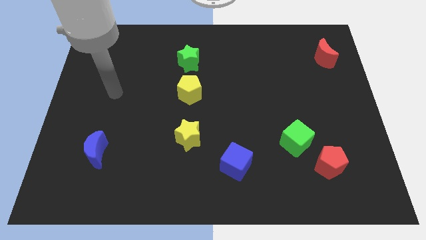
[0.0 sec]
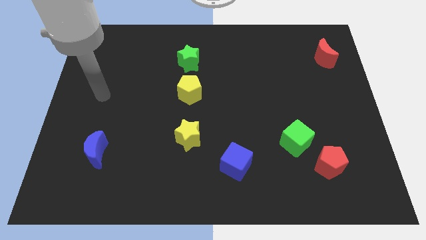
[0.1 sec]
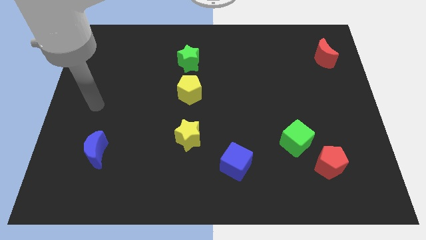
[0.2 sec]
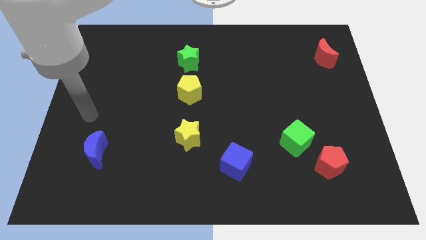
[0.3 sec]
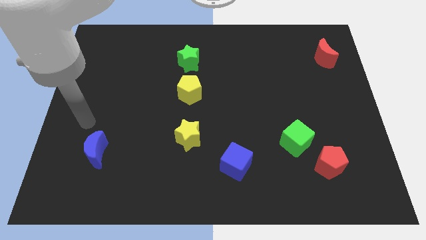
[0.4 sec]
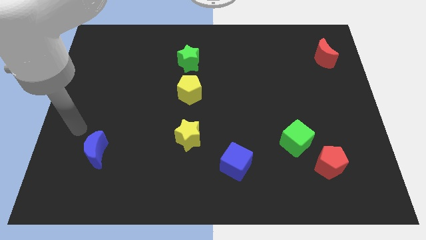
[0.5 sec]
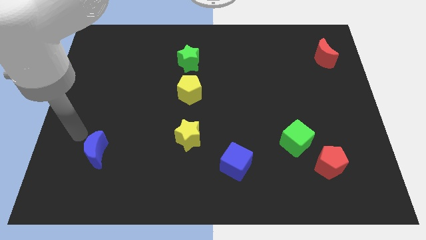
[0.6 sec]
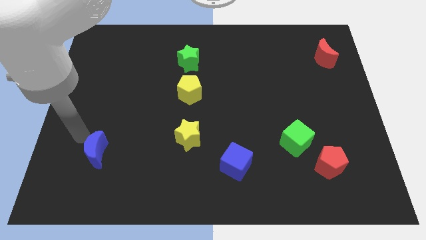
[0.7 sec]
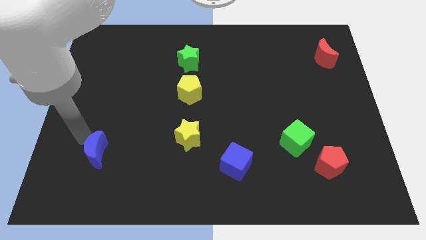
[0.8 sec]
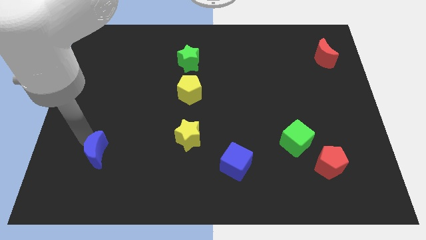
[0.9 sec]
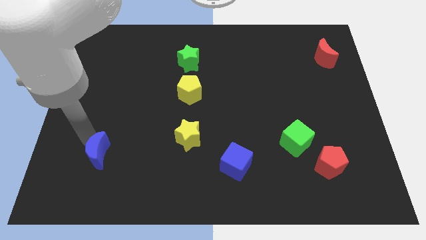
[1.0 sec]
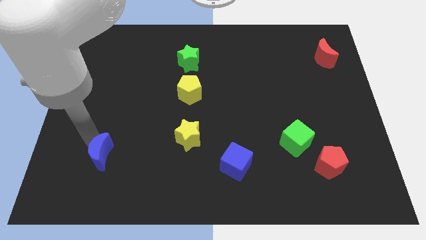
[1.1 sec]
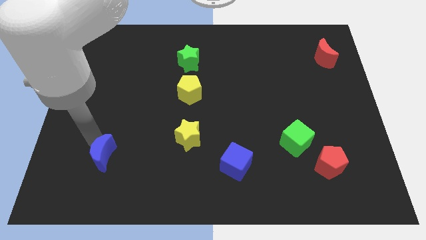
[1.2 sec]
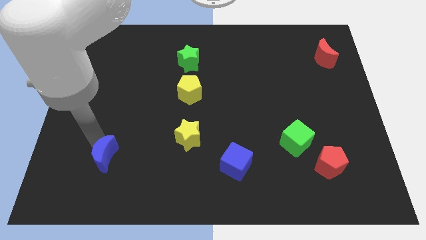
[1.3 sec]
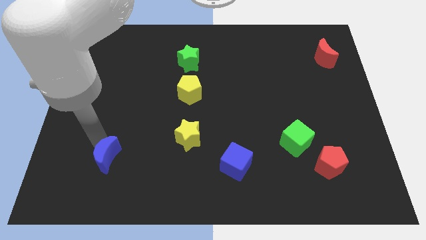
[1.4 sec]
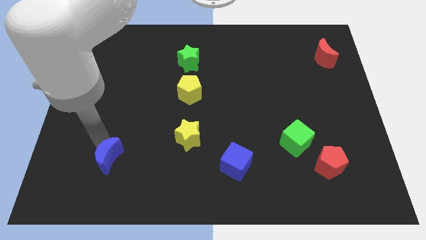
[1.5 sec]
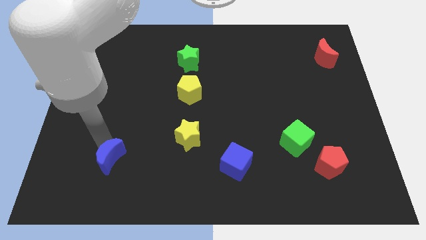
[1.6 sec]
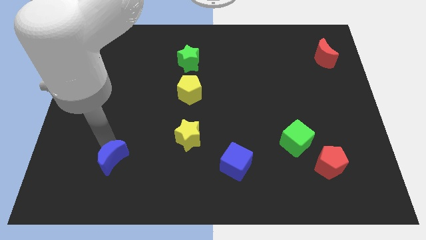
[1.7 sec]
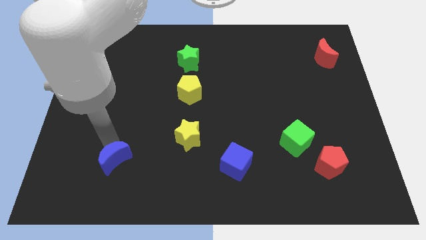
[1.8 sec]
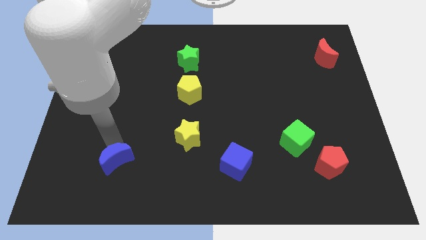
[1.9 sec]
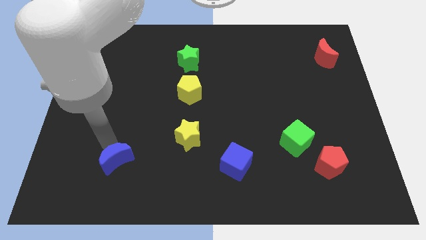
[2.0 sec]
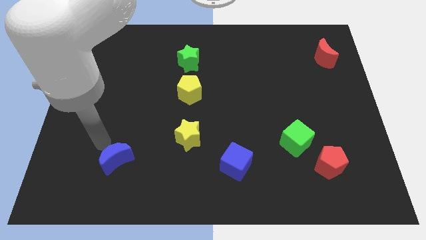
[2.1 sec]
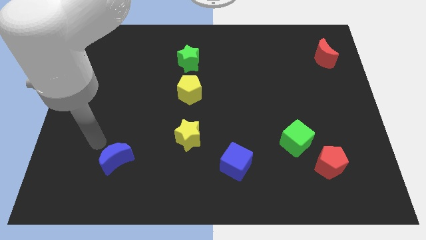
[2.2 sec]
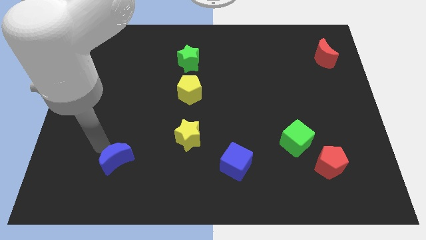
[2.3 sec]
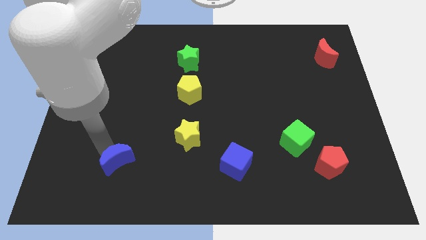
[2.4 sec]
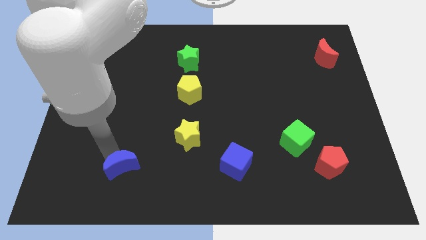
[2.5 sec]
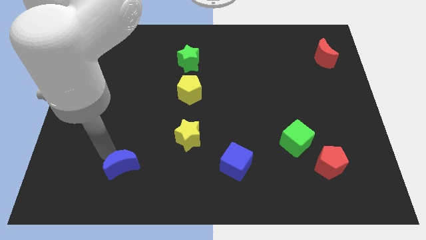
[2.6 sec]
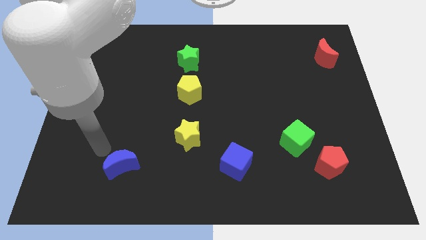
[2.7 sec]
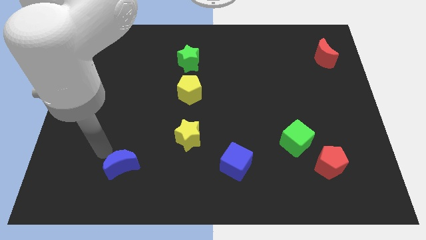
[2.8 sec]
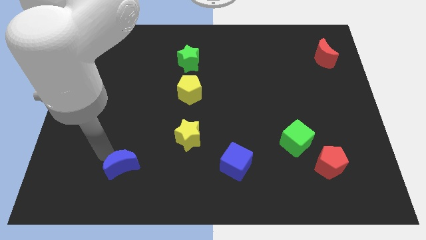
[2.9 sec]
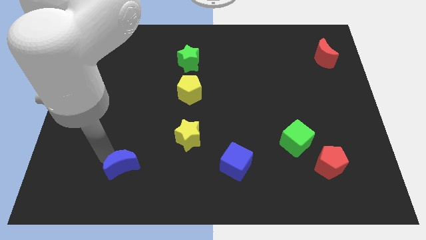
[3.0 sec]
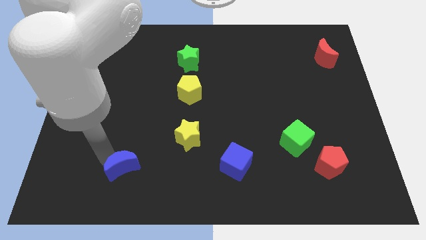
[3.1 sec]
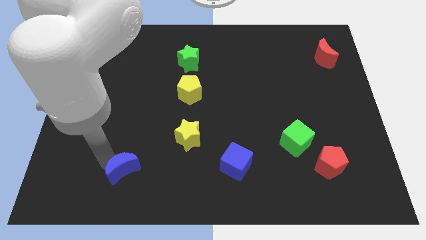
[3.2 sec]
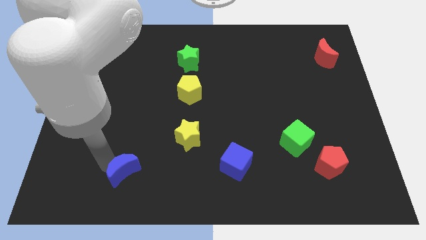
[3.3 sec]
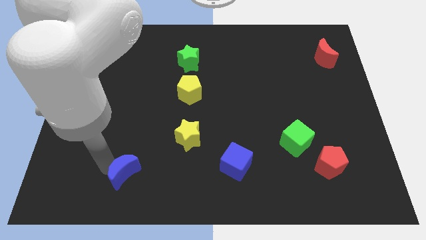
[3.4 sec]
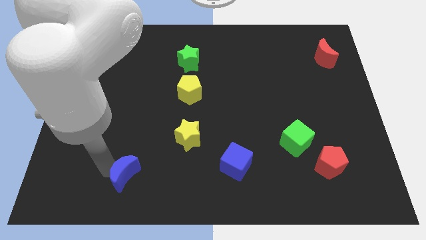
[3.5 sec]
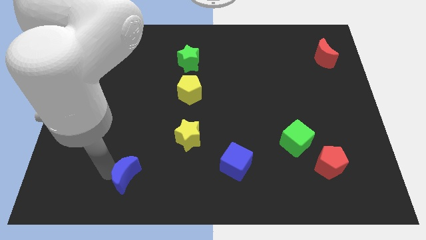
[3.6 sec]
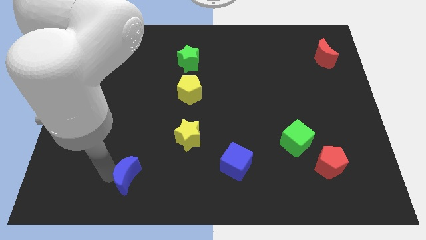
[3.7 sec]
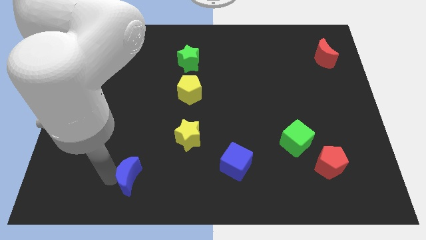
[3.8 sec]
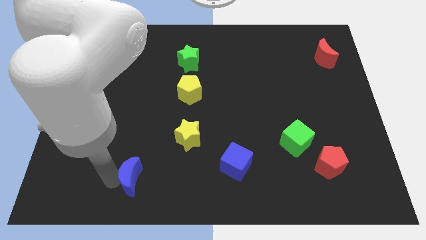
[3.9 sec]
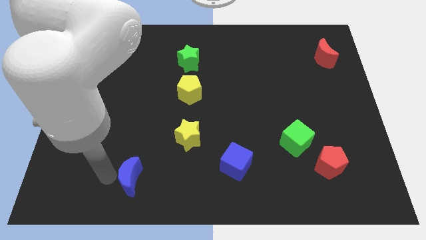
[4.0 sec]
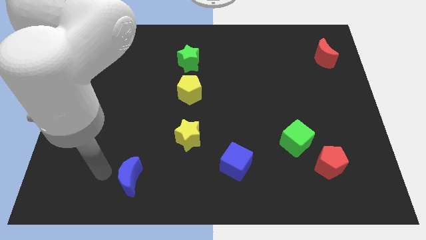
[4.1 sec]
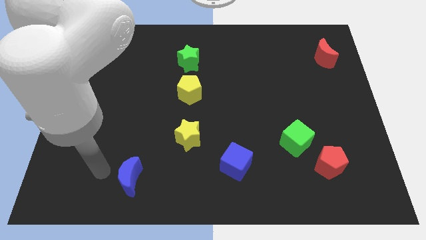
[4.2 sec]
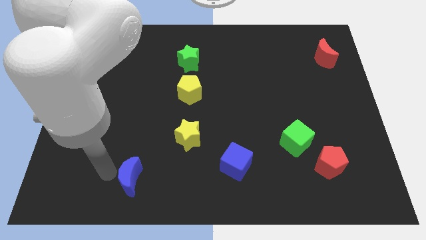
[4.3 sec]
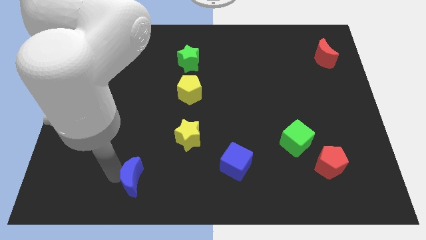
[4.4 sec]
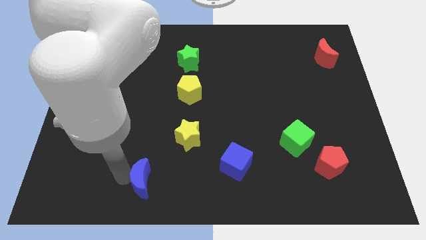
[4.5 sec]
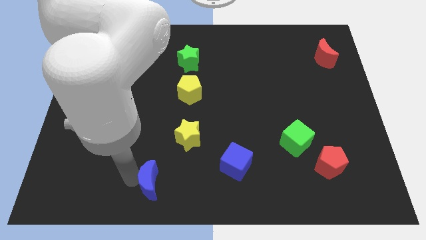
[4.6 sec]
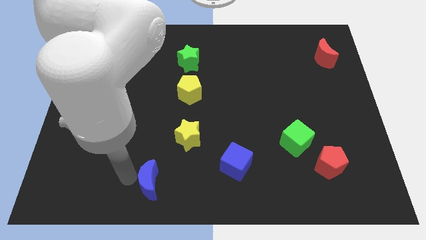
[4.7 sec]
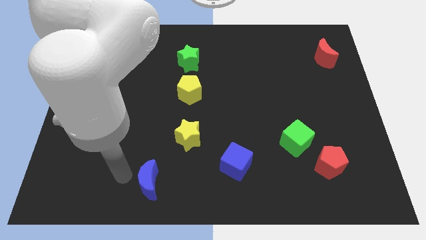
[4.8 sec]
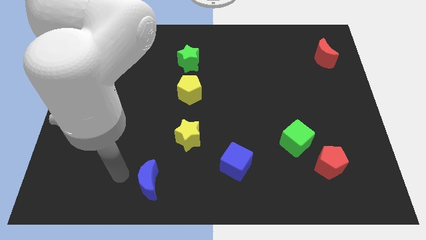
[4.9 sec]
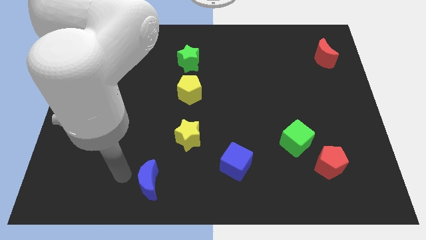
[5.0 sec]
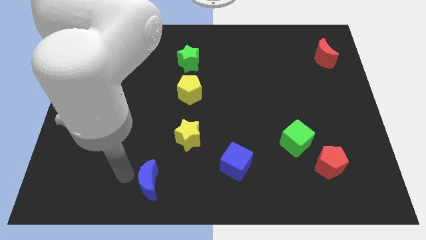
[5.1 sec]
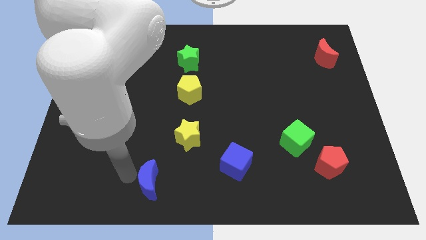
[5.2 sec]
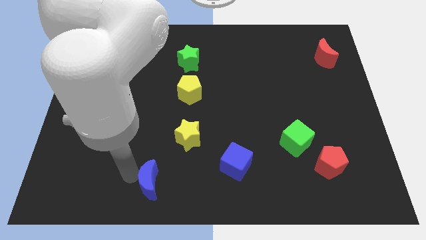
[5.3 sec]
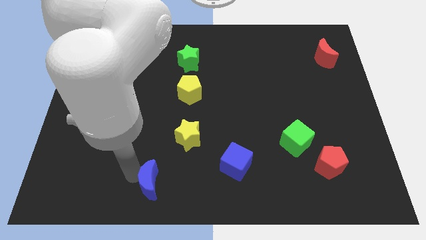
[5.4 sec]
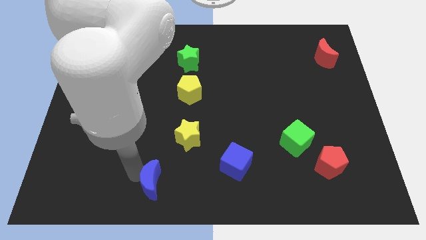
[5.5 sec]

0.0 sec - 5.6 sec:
push the blue moon to the bottom side

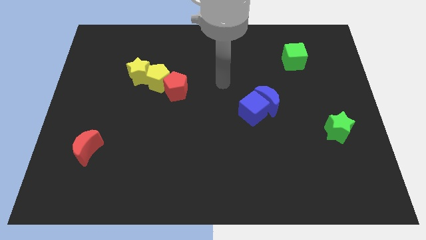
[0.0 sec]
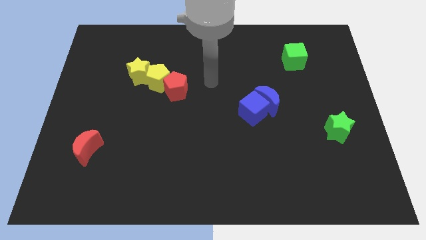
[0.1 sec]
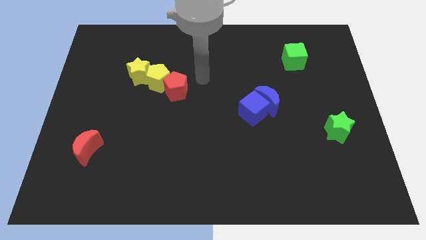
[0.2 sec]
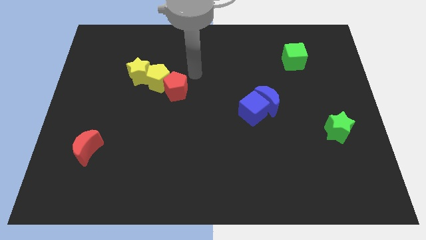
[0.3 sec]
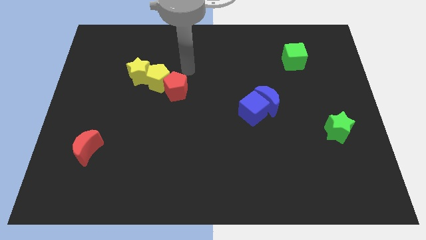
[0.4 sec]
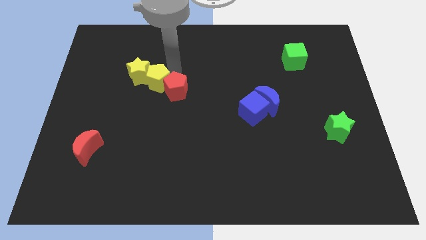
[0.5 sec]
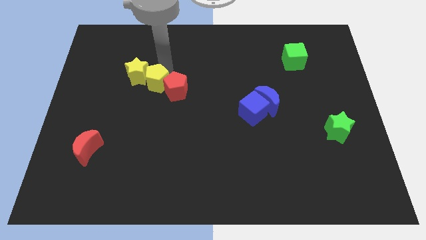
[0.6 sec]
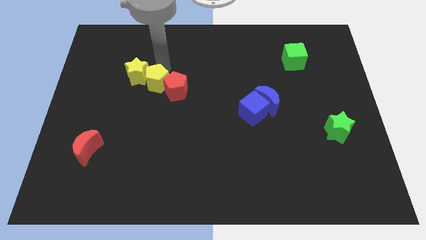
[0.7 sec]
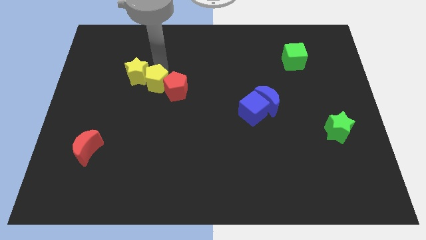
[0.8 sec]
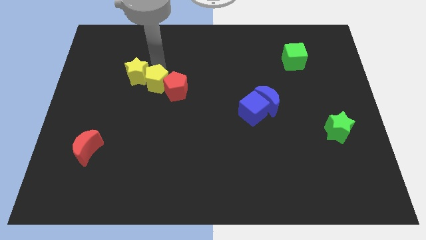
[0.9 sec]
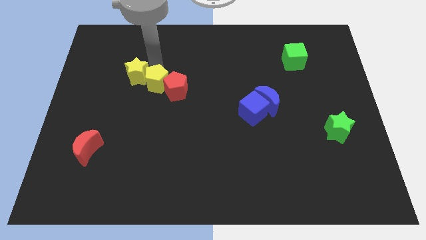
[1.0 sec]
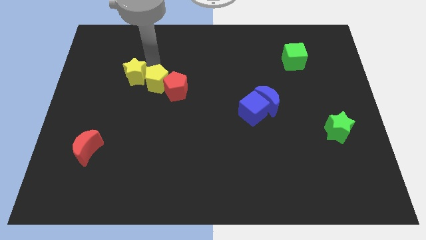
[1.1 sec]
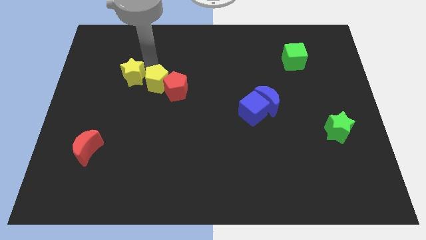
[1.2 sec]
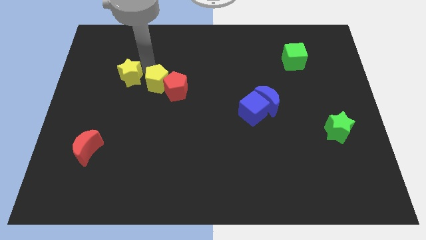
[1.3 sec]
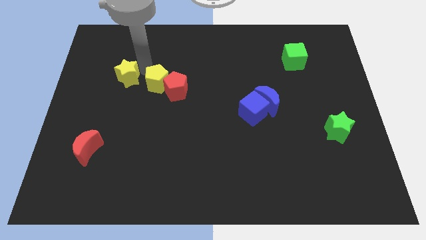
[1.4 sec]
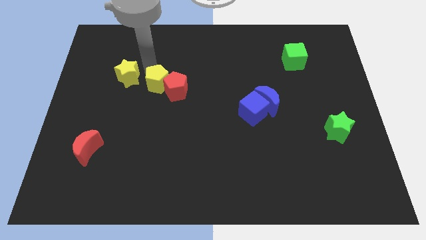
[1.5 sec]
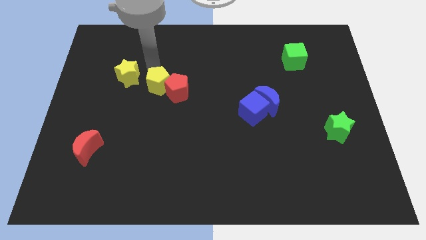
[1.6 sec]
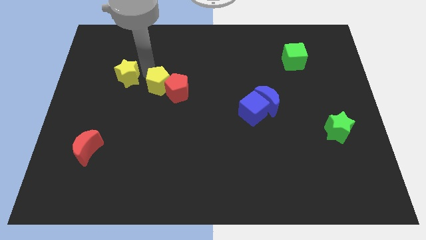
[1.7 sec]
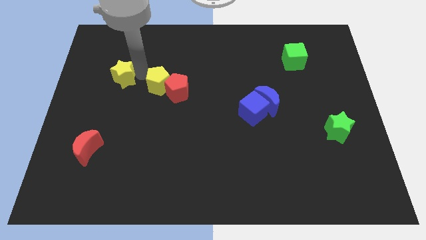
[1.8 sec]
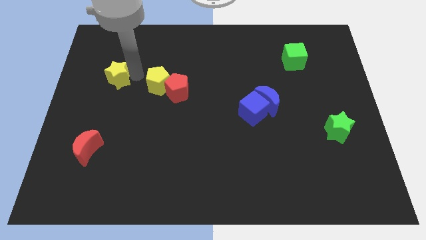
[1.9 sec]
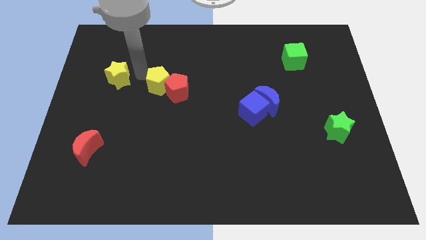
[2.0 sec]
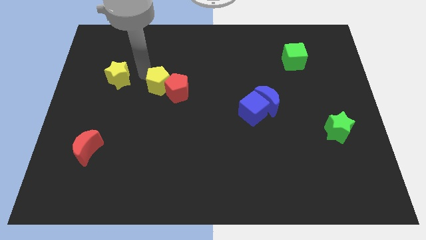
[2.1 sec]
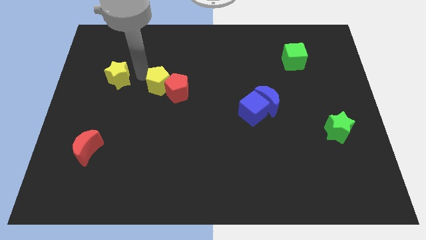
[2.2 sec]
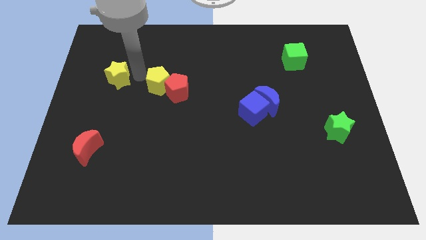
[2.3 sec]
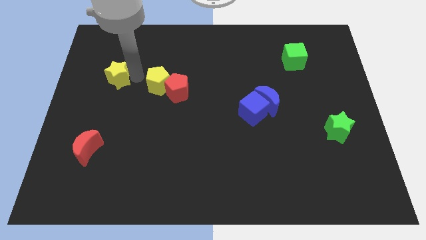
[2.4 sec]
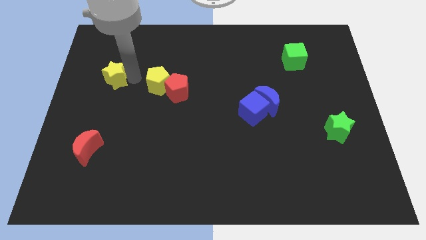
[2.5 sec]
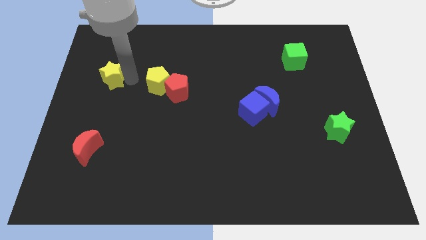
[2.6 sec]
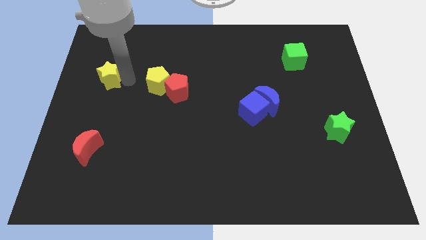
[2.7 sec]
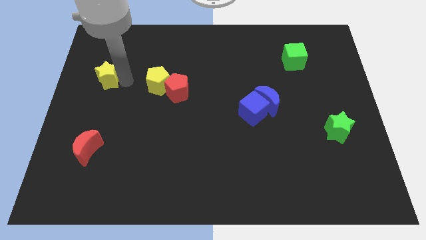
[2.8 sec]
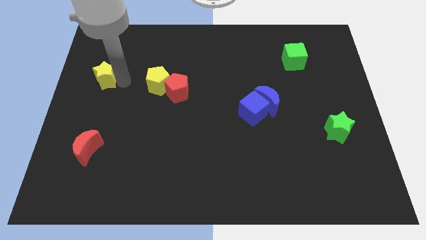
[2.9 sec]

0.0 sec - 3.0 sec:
slide the yellow star to the left side
